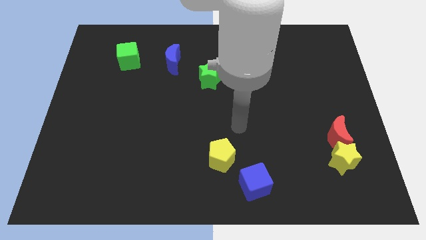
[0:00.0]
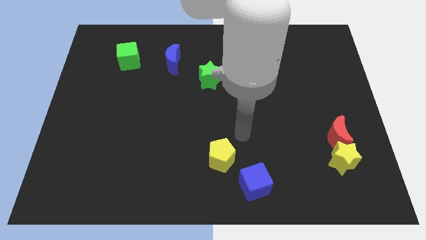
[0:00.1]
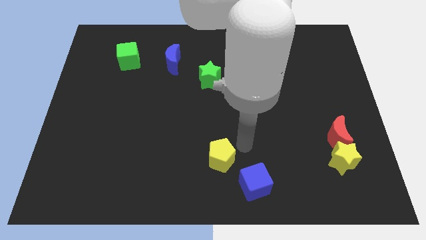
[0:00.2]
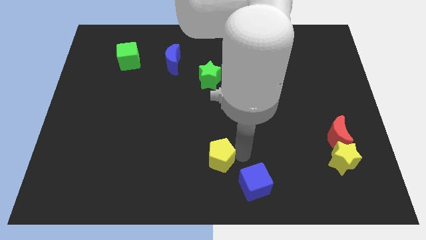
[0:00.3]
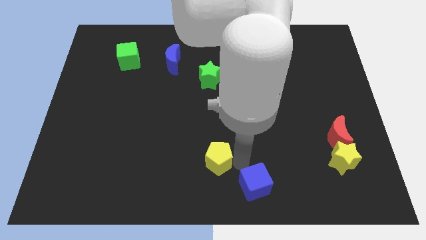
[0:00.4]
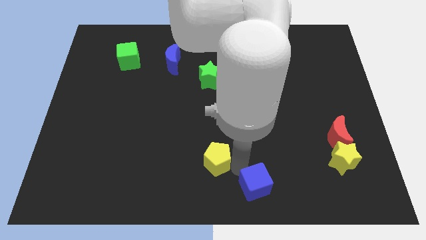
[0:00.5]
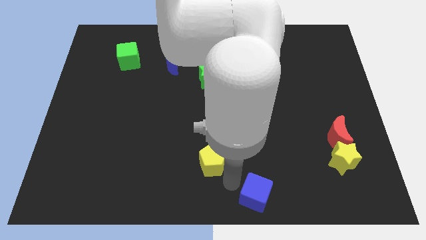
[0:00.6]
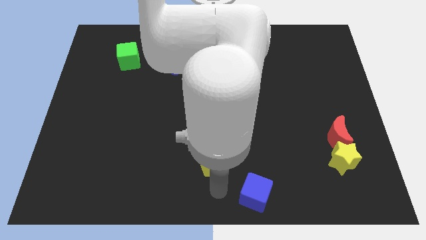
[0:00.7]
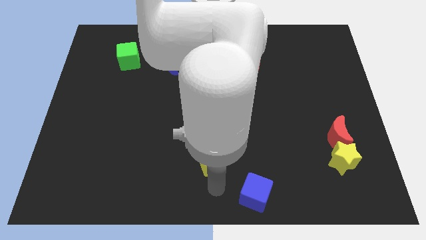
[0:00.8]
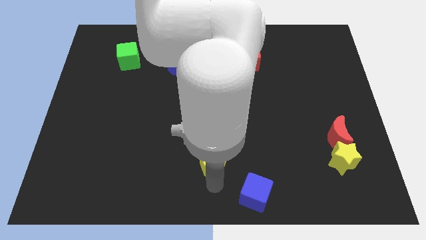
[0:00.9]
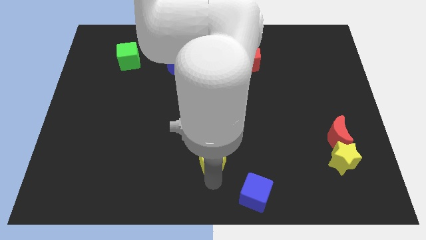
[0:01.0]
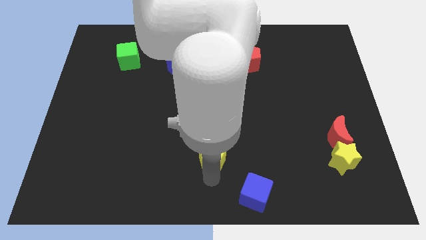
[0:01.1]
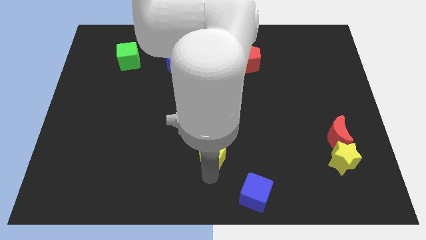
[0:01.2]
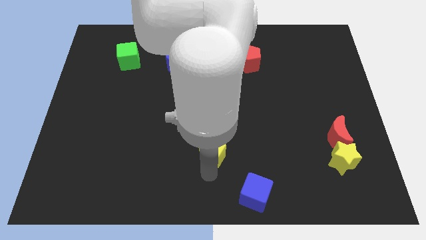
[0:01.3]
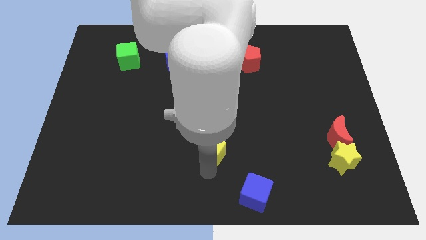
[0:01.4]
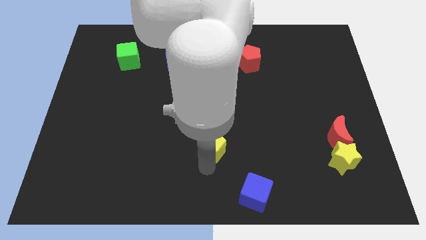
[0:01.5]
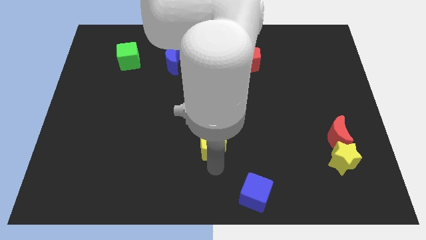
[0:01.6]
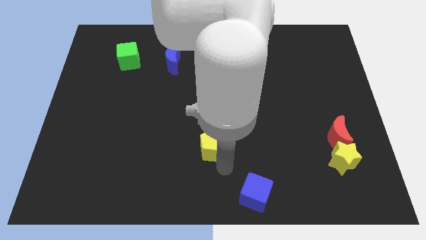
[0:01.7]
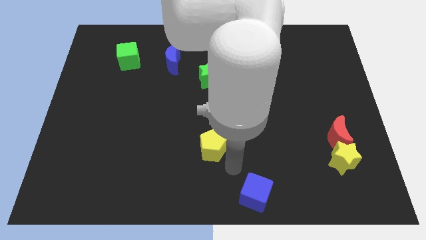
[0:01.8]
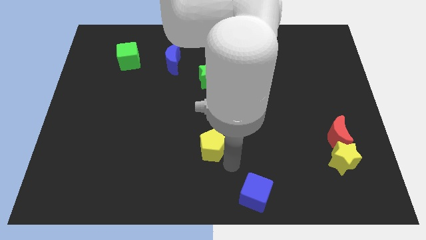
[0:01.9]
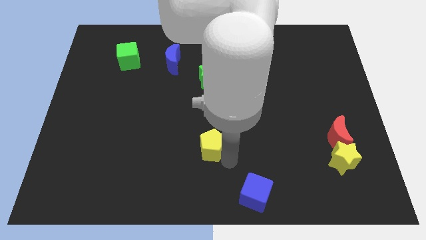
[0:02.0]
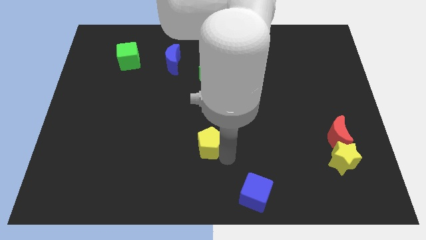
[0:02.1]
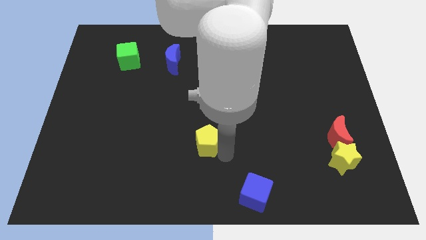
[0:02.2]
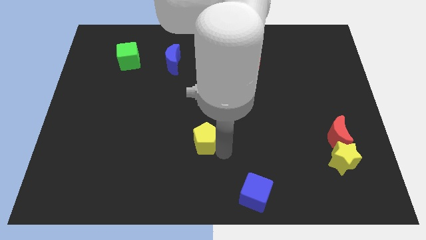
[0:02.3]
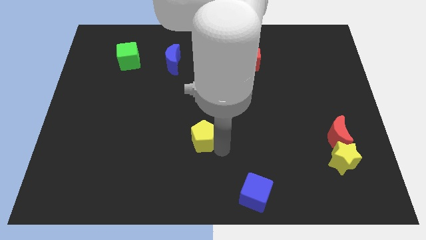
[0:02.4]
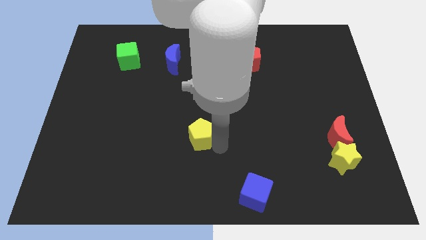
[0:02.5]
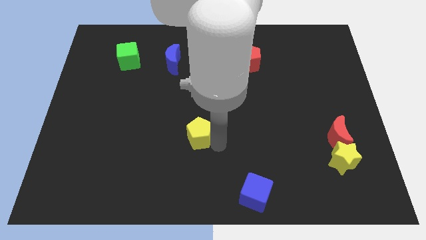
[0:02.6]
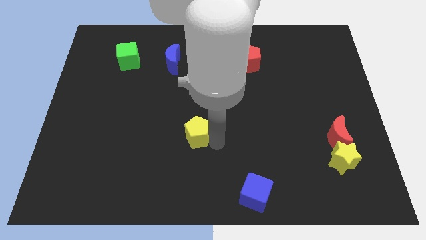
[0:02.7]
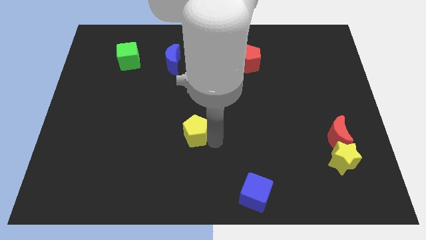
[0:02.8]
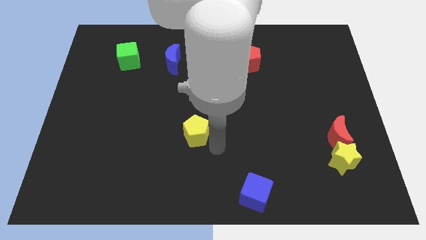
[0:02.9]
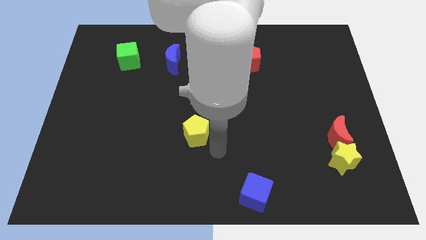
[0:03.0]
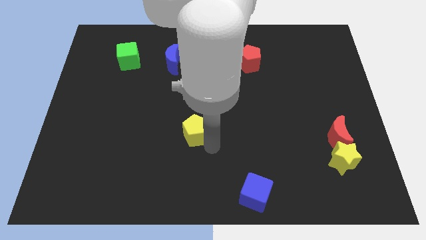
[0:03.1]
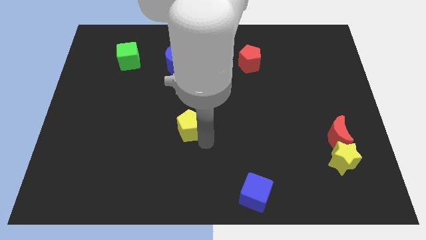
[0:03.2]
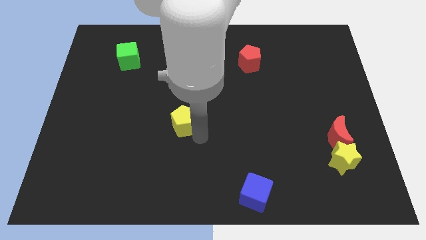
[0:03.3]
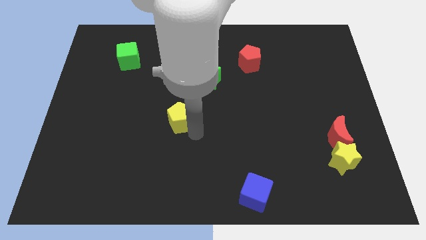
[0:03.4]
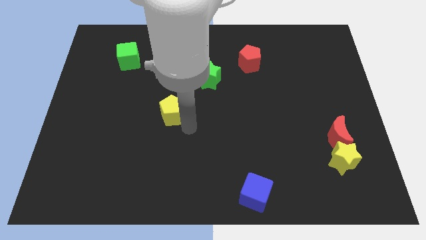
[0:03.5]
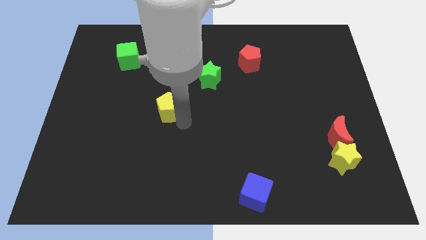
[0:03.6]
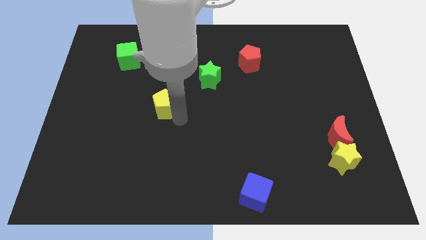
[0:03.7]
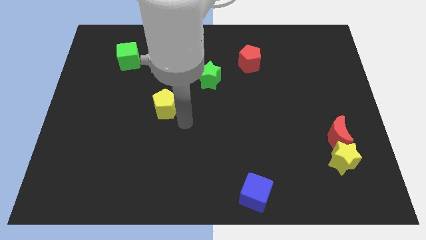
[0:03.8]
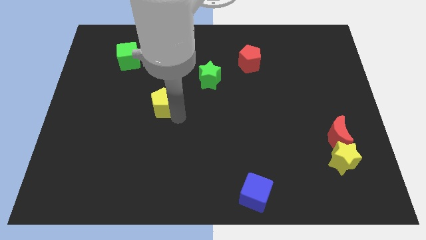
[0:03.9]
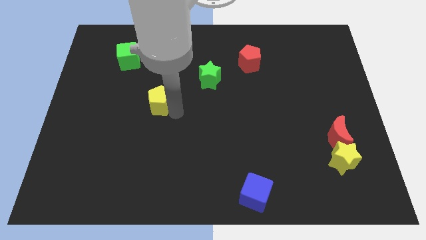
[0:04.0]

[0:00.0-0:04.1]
slide the yellow pentagon up and to the left

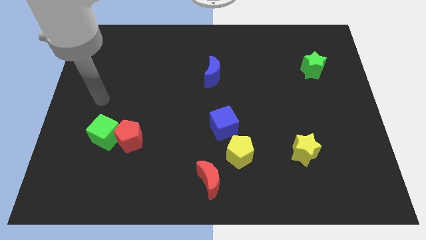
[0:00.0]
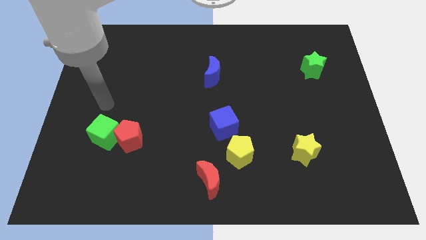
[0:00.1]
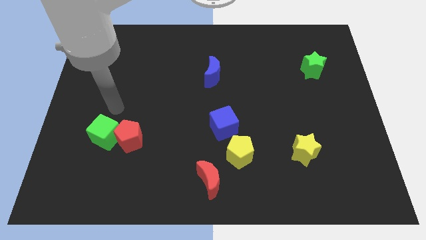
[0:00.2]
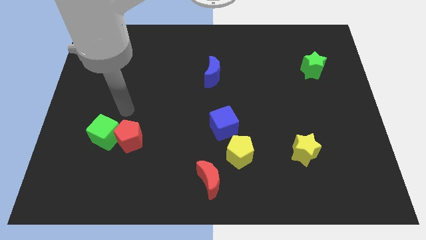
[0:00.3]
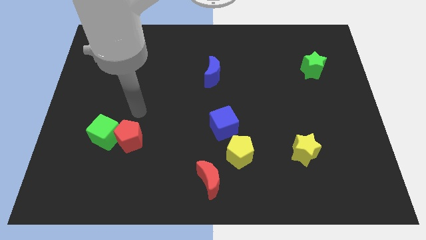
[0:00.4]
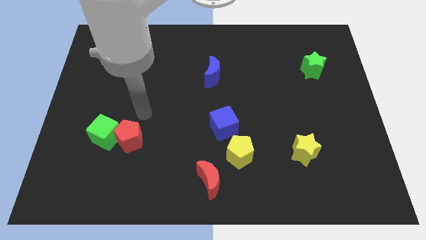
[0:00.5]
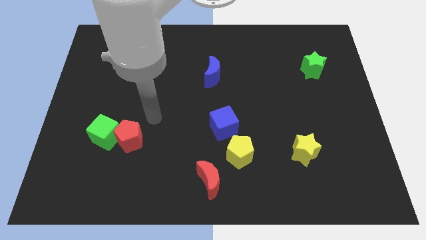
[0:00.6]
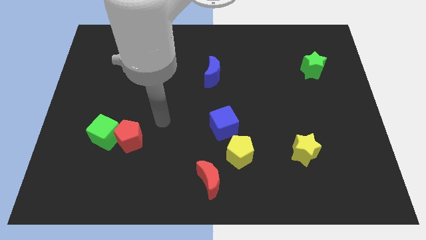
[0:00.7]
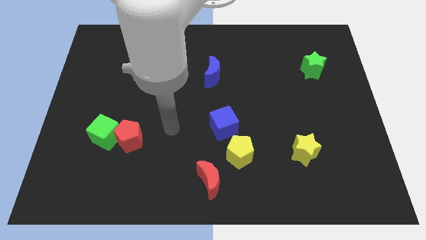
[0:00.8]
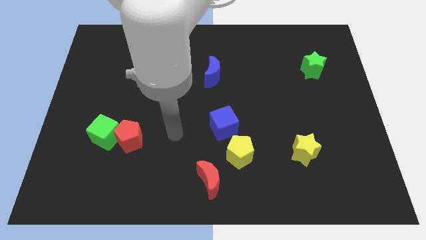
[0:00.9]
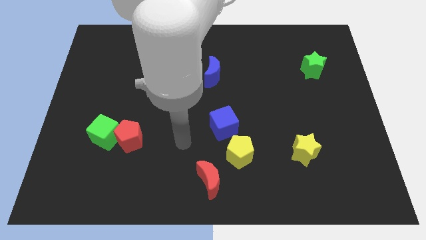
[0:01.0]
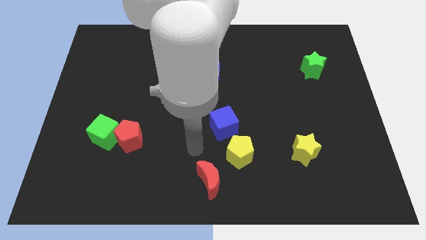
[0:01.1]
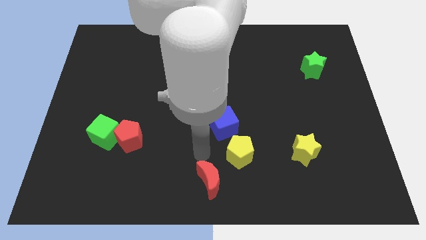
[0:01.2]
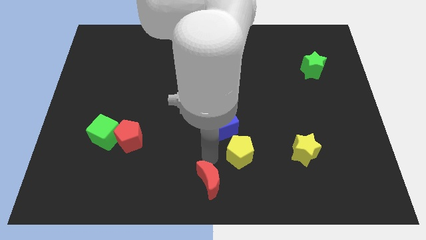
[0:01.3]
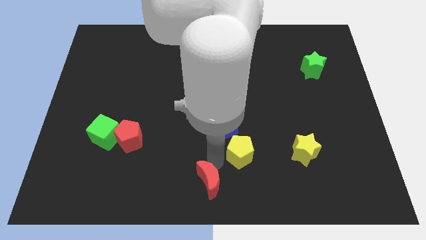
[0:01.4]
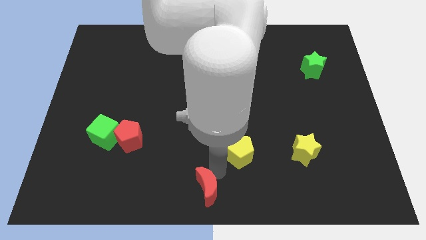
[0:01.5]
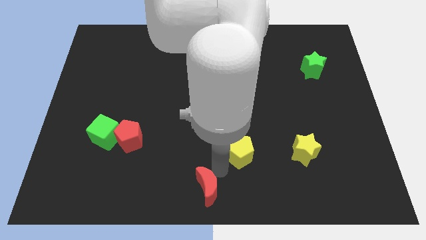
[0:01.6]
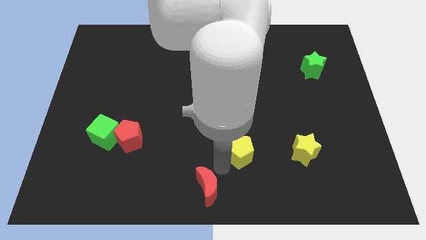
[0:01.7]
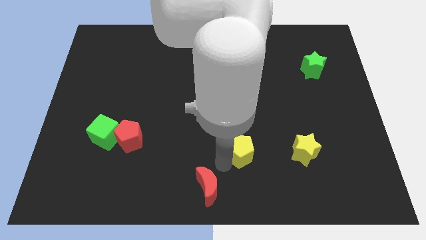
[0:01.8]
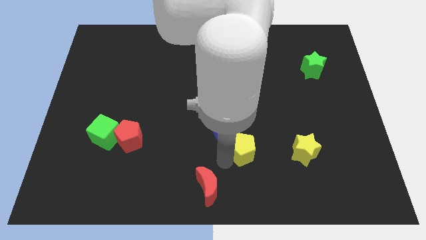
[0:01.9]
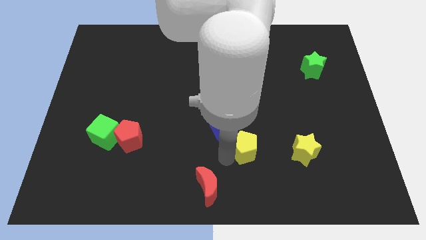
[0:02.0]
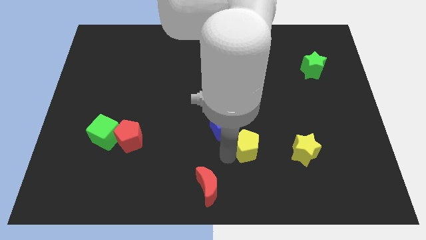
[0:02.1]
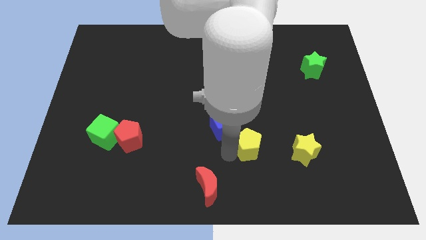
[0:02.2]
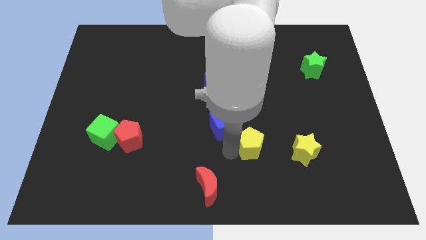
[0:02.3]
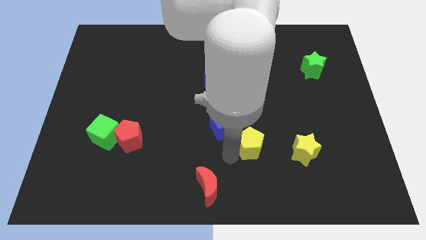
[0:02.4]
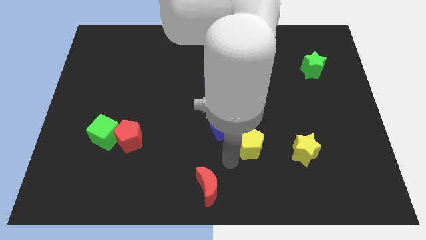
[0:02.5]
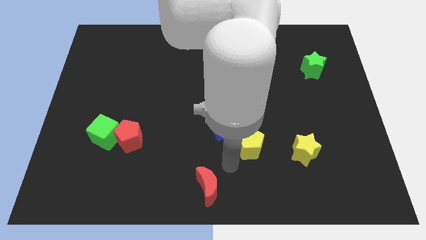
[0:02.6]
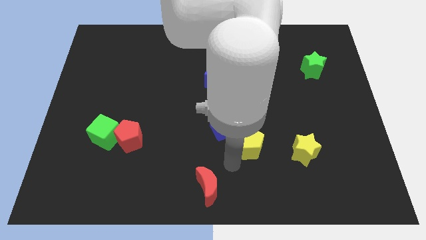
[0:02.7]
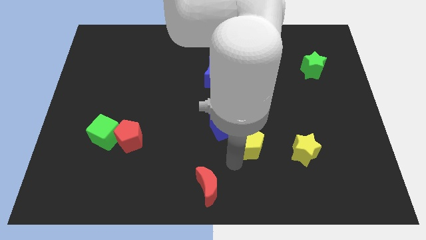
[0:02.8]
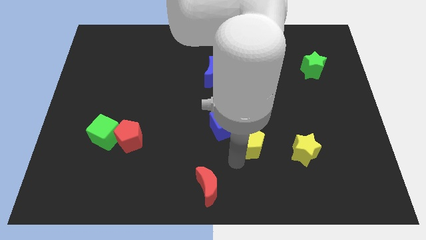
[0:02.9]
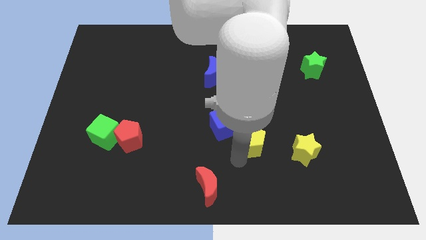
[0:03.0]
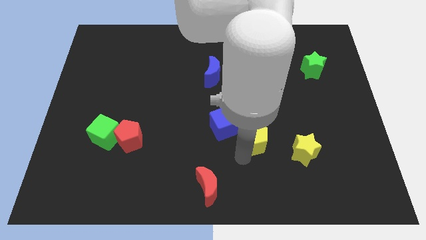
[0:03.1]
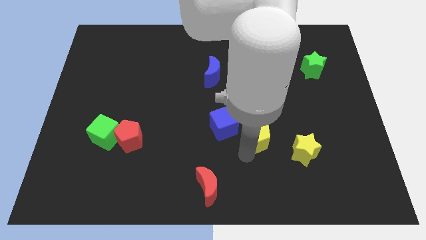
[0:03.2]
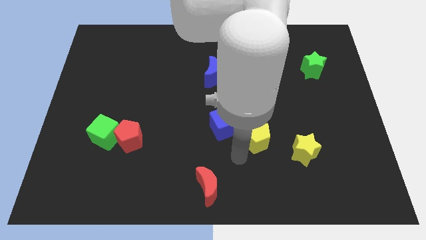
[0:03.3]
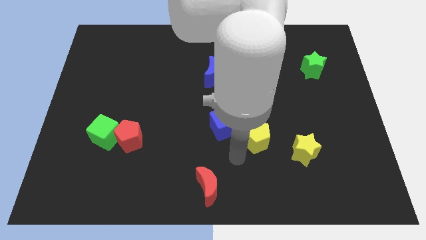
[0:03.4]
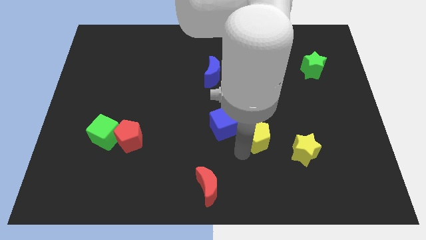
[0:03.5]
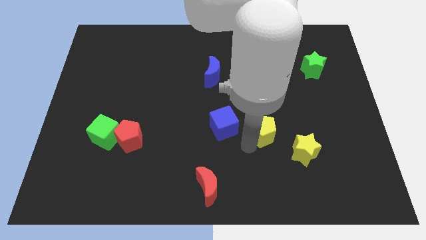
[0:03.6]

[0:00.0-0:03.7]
slide the yellow pentagon a little upwards and then to the right

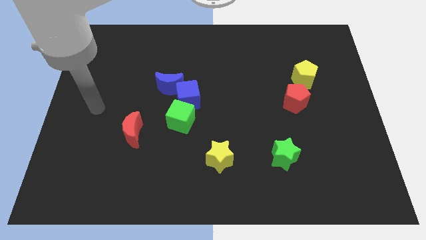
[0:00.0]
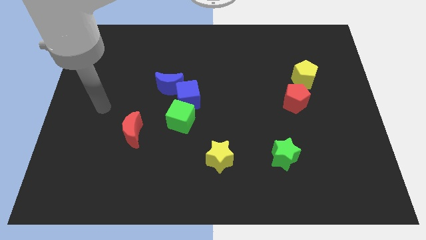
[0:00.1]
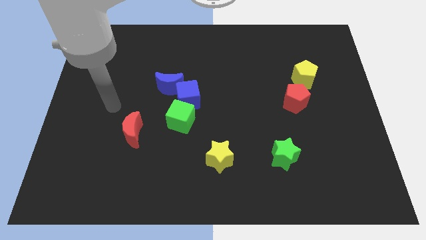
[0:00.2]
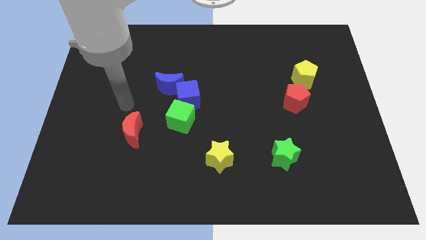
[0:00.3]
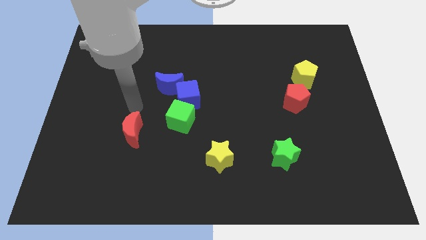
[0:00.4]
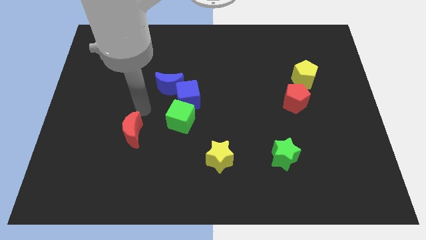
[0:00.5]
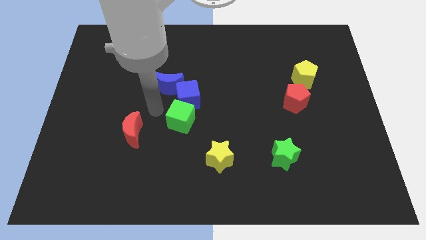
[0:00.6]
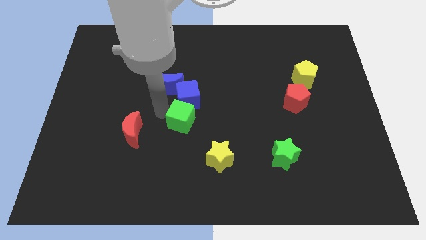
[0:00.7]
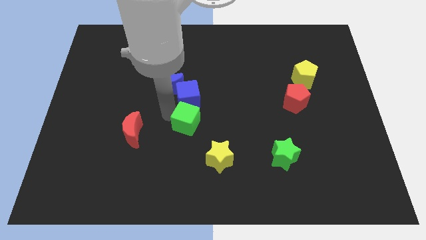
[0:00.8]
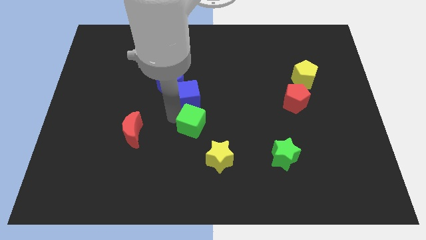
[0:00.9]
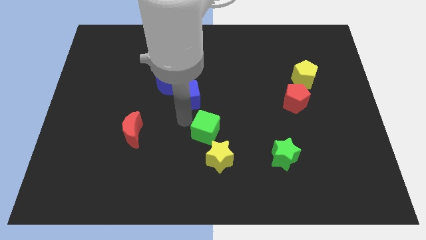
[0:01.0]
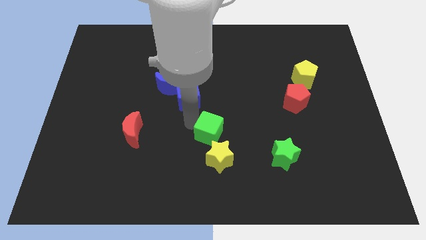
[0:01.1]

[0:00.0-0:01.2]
push the green cube slightly diagonally downwards and right
